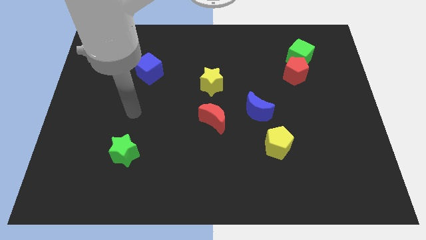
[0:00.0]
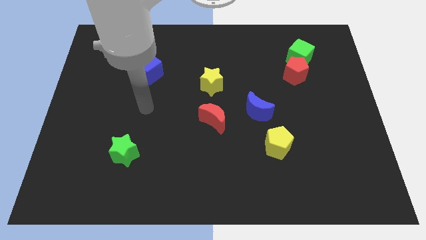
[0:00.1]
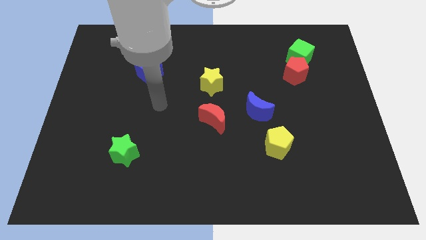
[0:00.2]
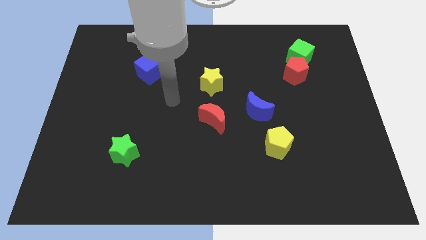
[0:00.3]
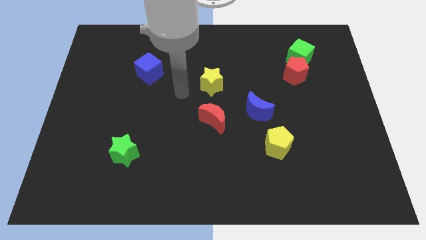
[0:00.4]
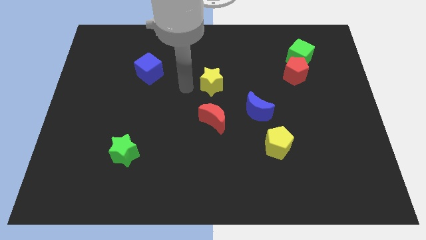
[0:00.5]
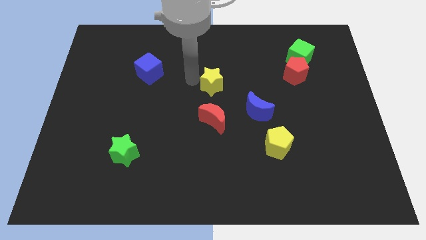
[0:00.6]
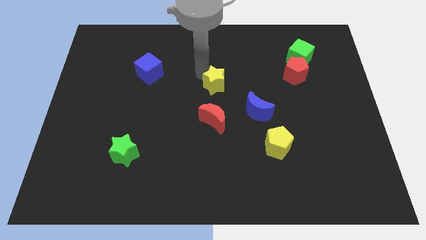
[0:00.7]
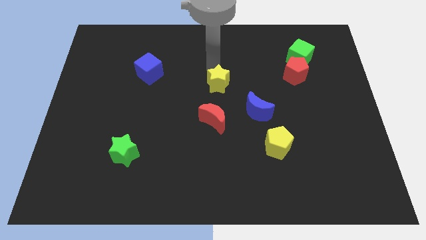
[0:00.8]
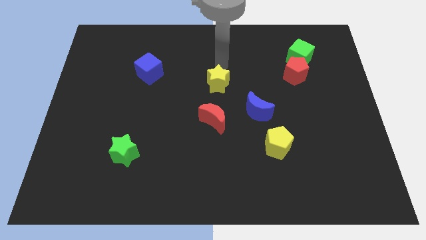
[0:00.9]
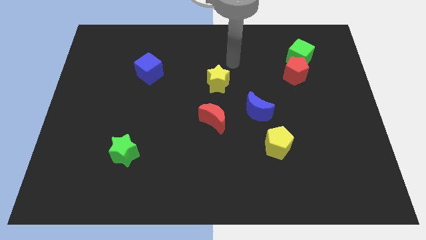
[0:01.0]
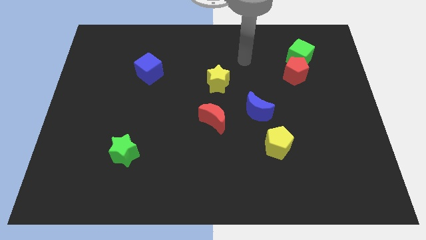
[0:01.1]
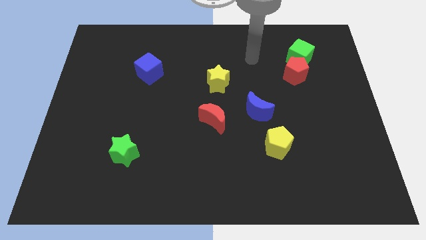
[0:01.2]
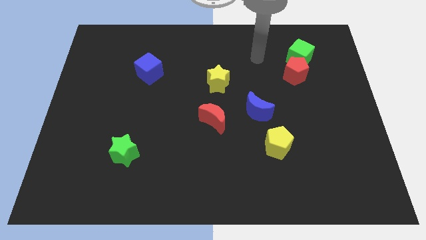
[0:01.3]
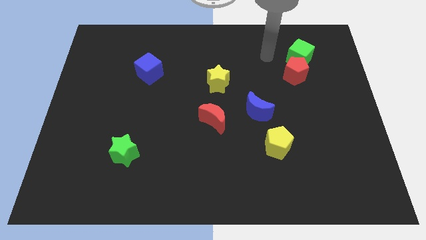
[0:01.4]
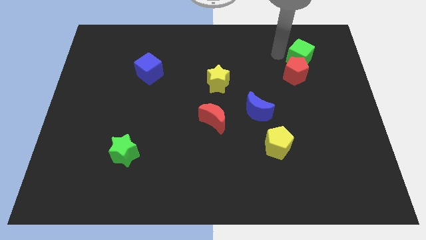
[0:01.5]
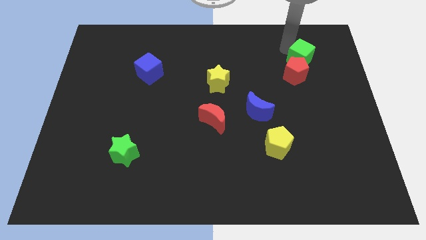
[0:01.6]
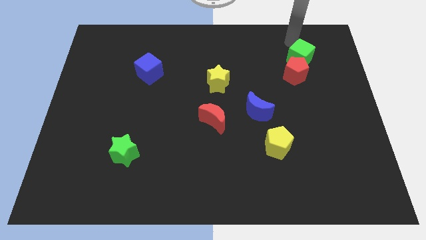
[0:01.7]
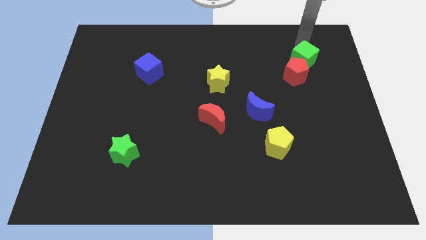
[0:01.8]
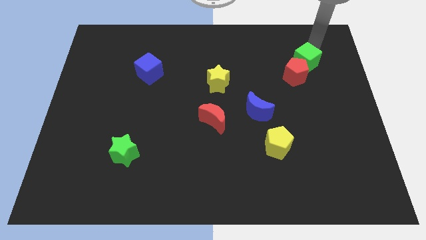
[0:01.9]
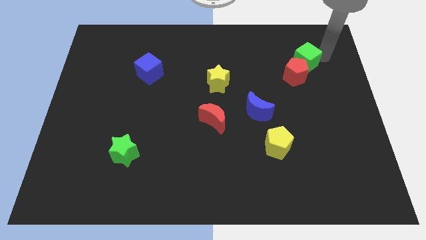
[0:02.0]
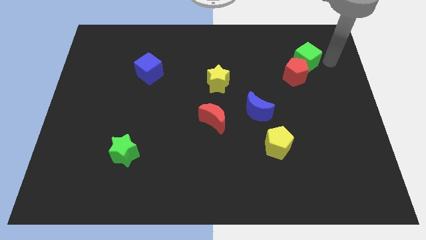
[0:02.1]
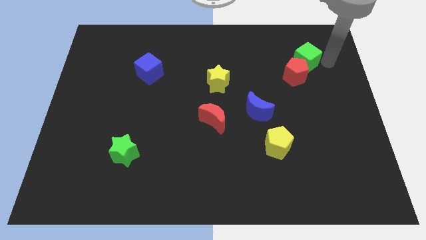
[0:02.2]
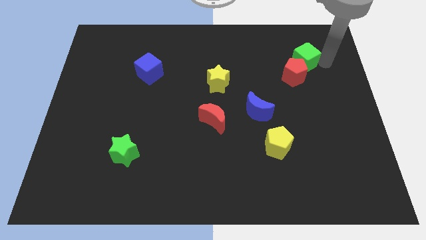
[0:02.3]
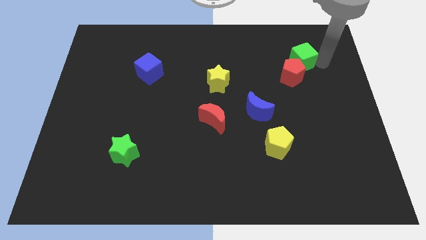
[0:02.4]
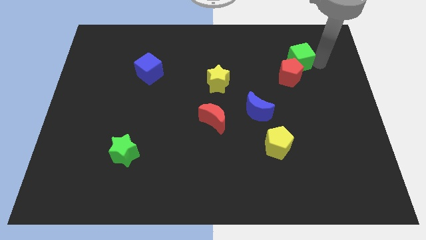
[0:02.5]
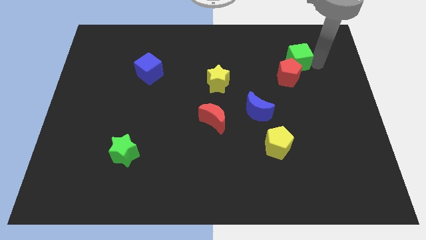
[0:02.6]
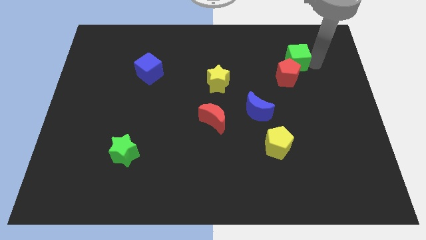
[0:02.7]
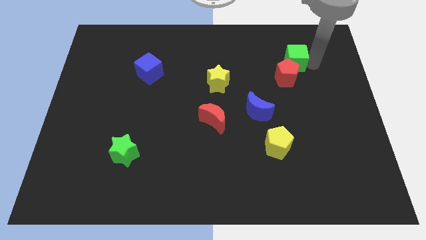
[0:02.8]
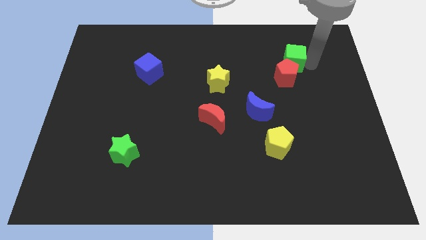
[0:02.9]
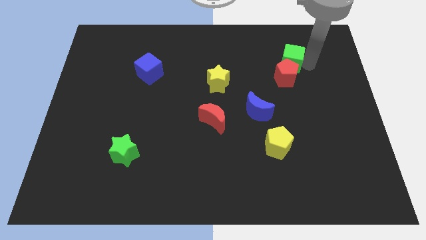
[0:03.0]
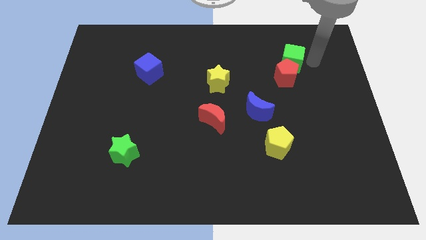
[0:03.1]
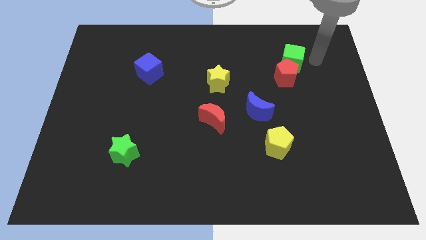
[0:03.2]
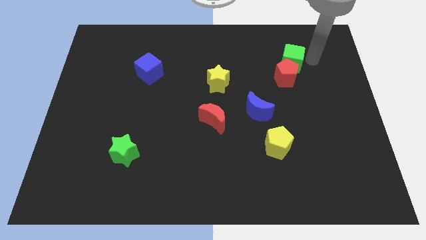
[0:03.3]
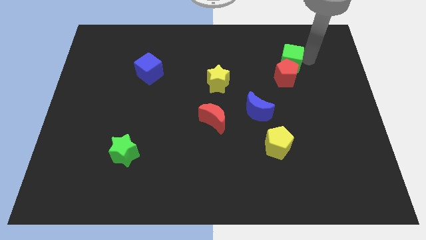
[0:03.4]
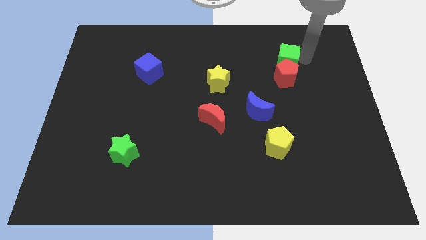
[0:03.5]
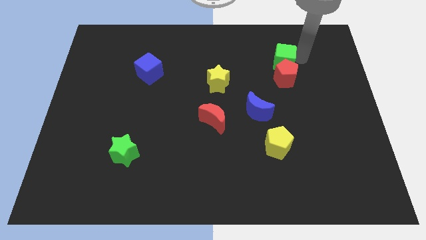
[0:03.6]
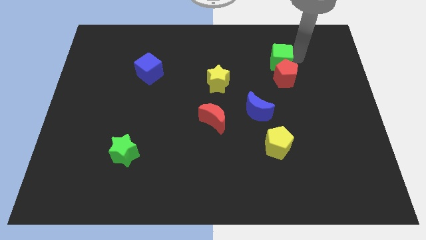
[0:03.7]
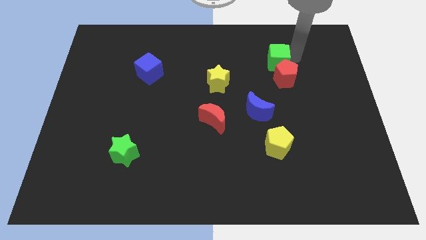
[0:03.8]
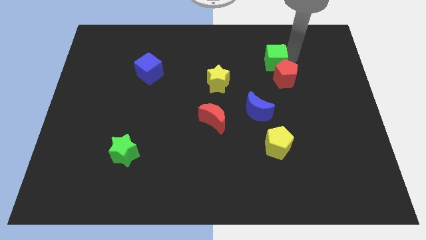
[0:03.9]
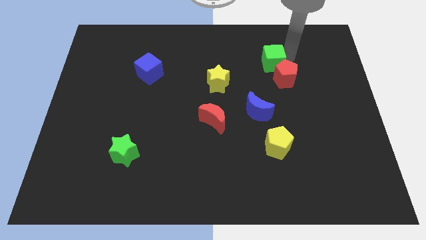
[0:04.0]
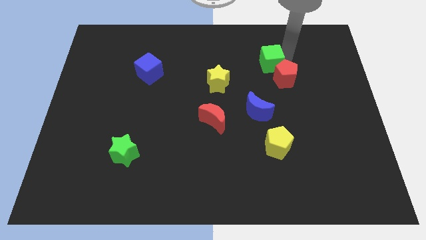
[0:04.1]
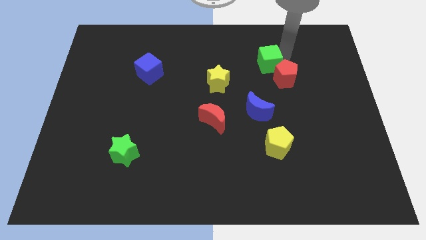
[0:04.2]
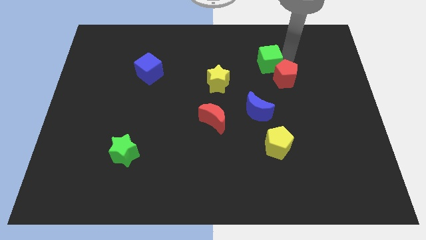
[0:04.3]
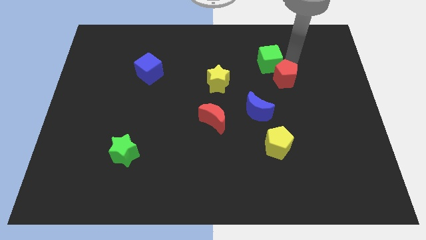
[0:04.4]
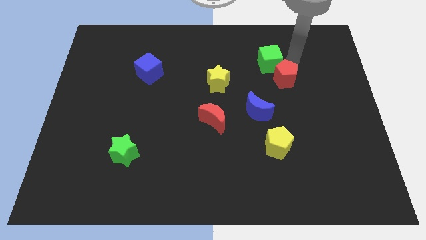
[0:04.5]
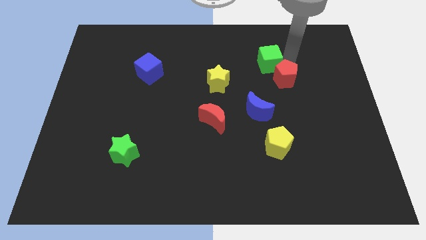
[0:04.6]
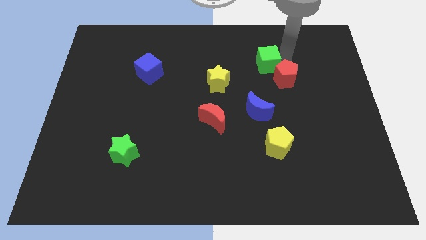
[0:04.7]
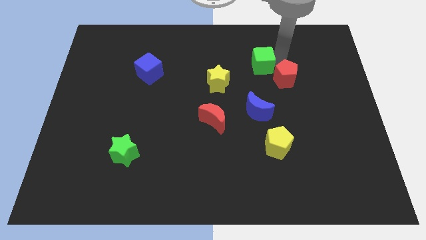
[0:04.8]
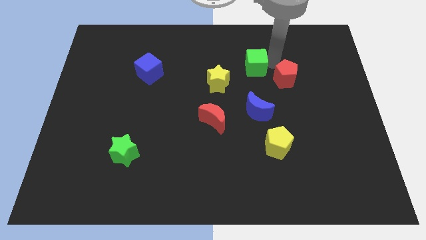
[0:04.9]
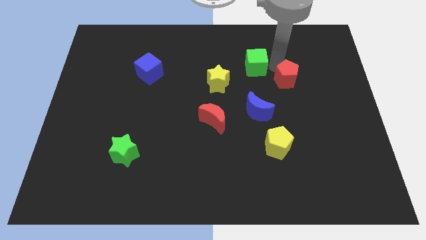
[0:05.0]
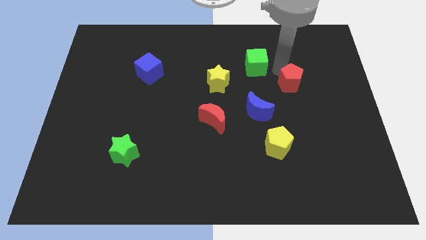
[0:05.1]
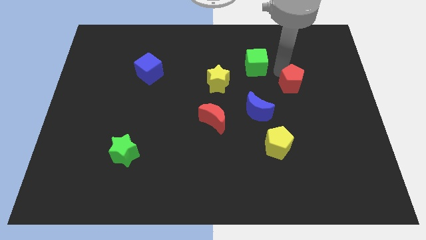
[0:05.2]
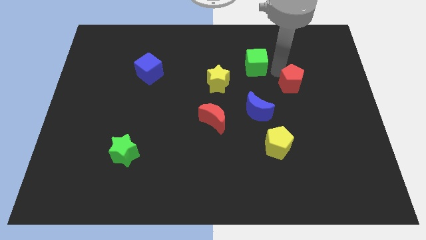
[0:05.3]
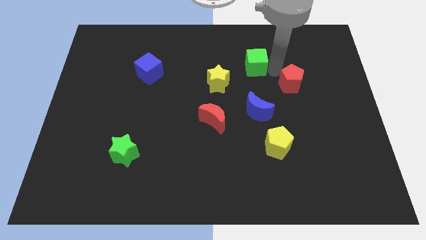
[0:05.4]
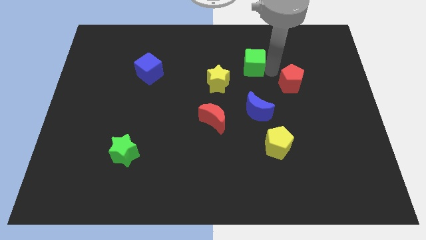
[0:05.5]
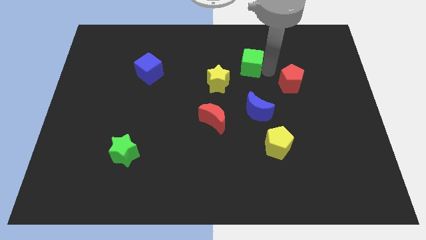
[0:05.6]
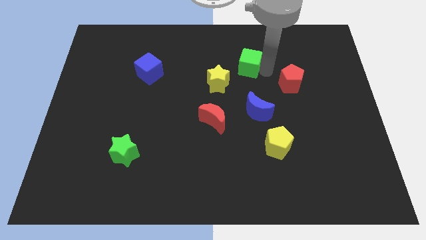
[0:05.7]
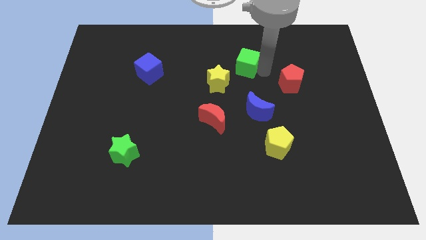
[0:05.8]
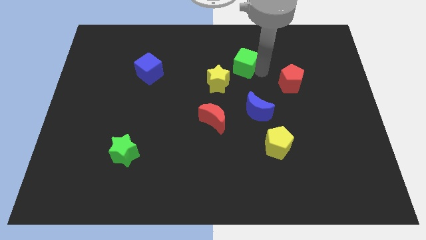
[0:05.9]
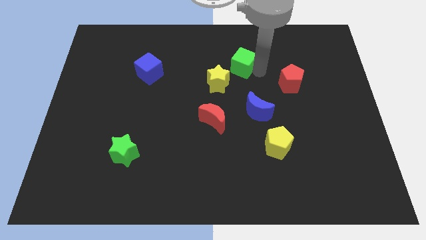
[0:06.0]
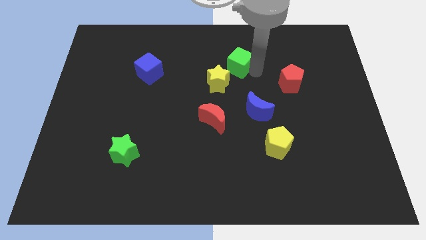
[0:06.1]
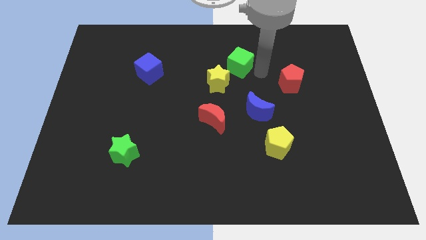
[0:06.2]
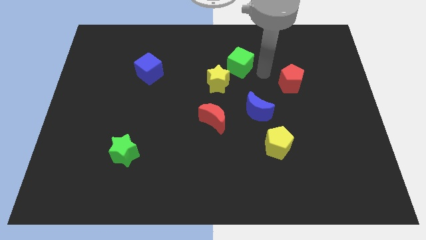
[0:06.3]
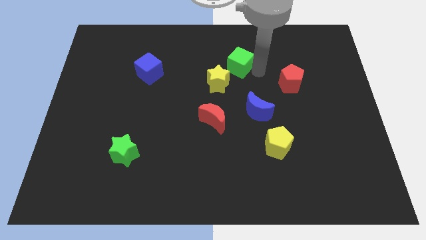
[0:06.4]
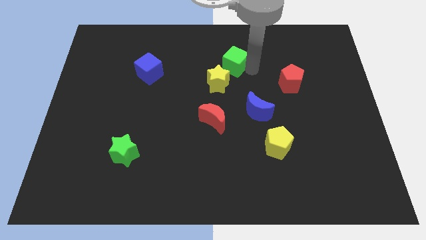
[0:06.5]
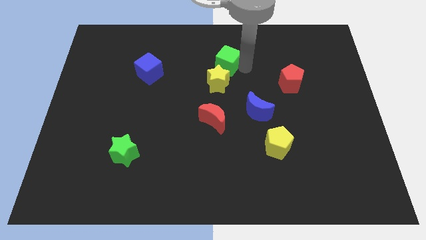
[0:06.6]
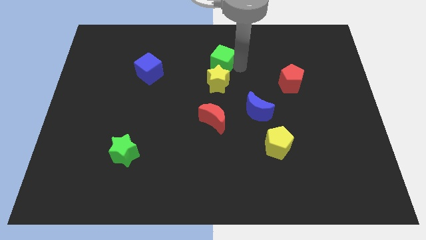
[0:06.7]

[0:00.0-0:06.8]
push the green cube left

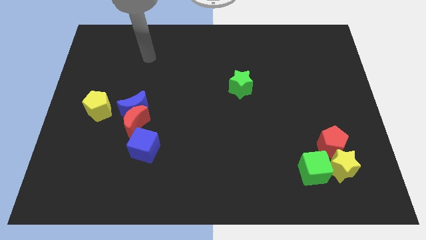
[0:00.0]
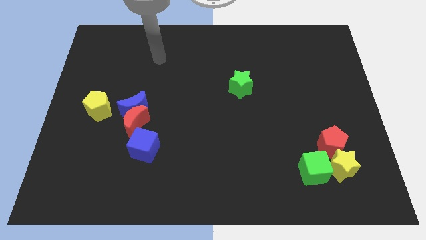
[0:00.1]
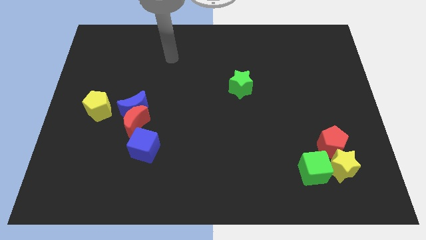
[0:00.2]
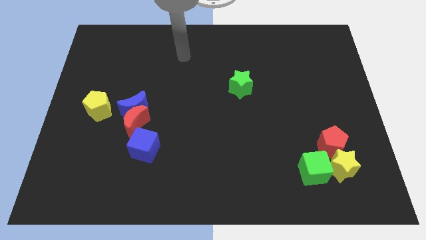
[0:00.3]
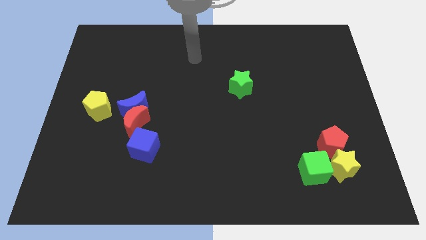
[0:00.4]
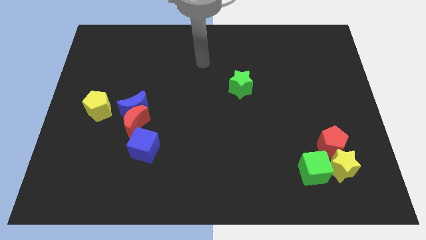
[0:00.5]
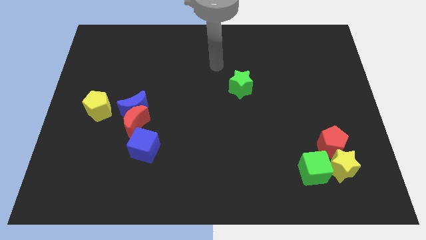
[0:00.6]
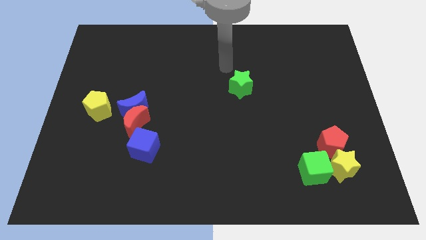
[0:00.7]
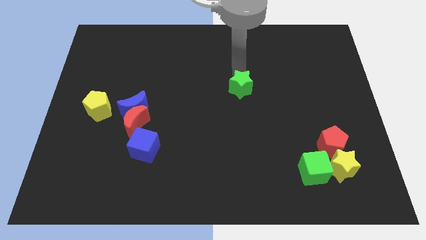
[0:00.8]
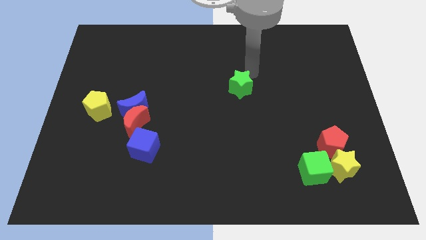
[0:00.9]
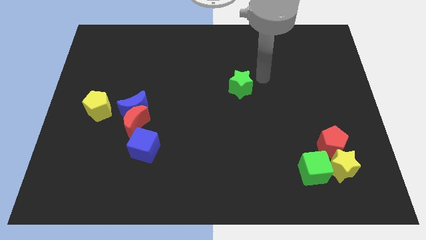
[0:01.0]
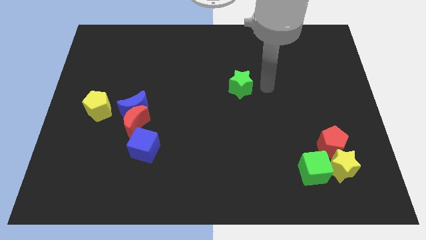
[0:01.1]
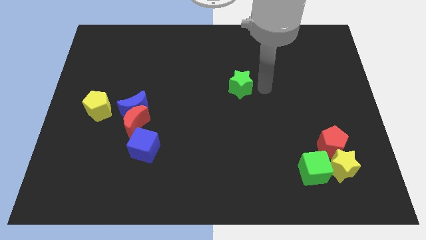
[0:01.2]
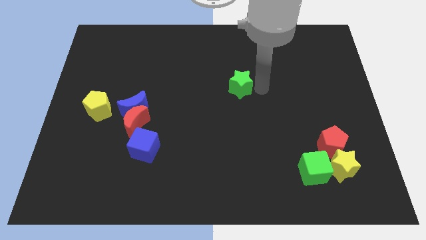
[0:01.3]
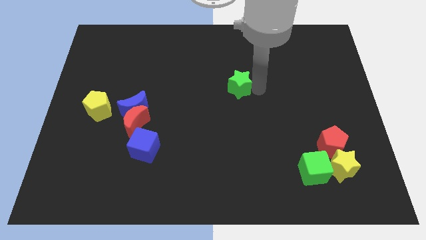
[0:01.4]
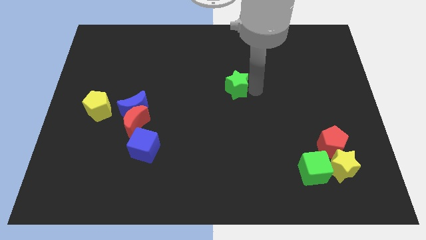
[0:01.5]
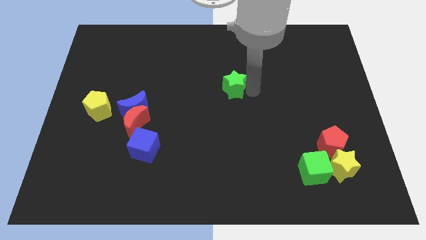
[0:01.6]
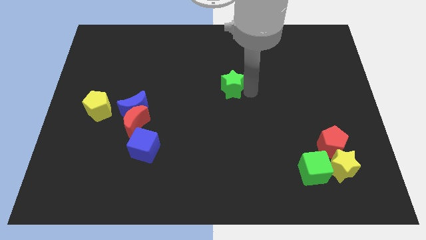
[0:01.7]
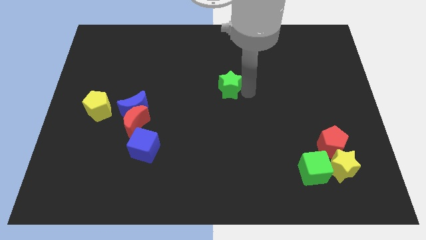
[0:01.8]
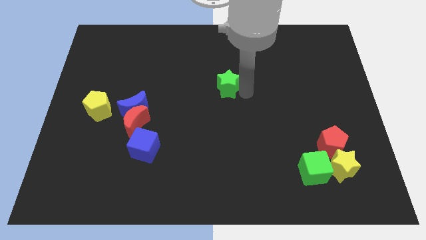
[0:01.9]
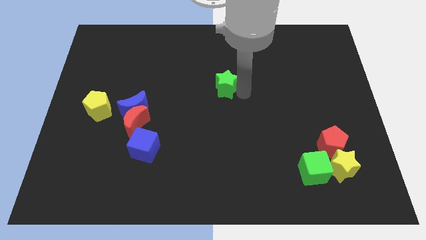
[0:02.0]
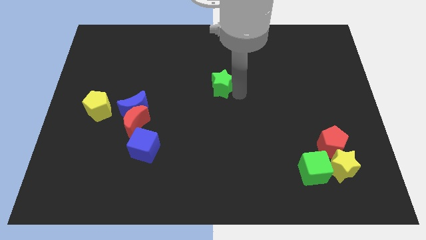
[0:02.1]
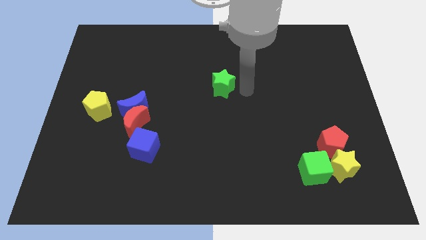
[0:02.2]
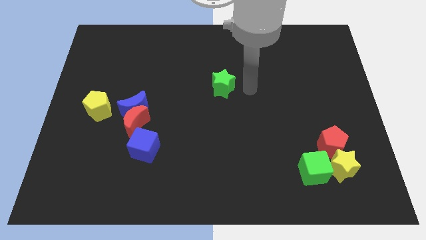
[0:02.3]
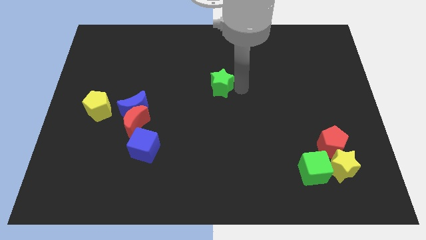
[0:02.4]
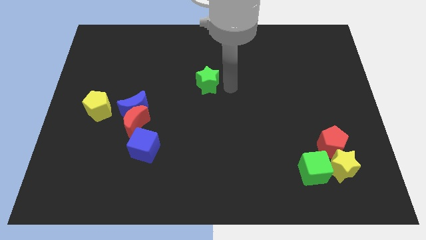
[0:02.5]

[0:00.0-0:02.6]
slightly push the green star to the left
